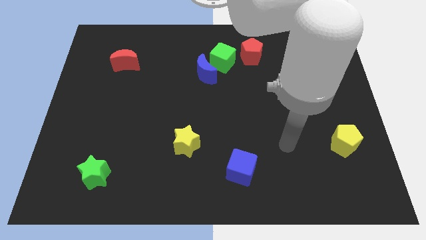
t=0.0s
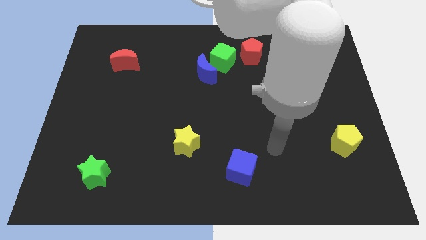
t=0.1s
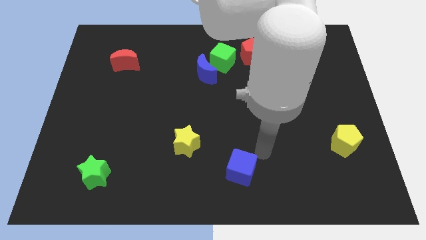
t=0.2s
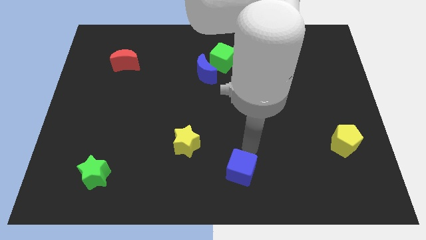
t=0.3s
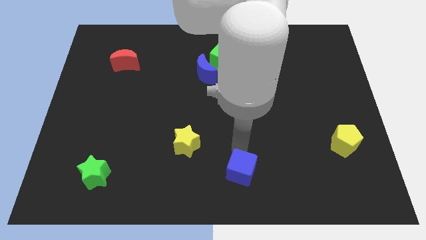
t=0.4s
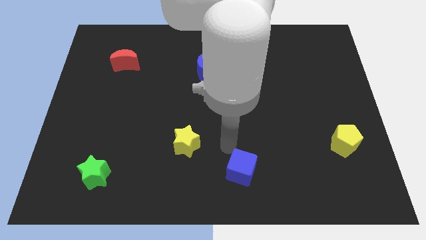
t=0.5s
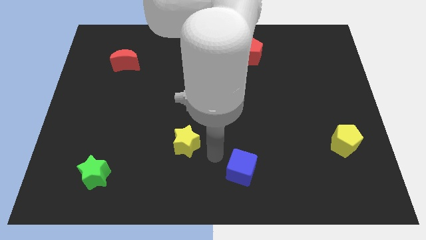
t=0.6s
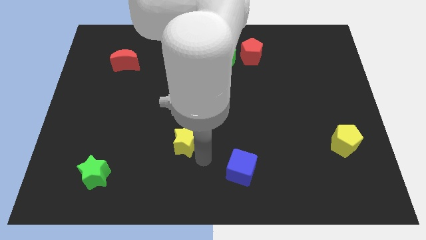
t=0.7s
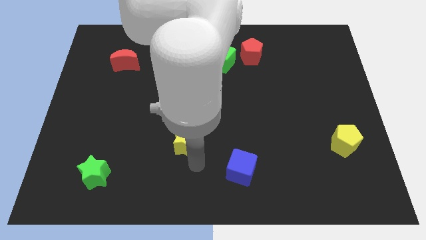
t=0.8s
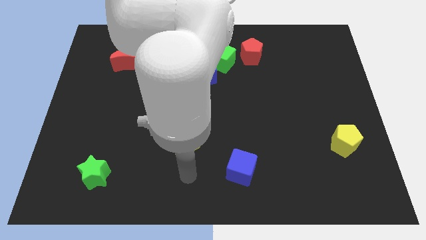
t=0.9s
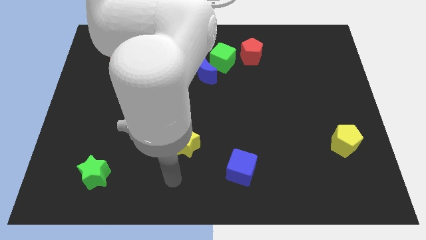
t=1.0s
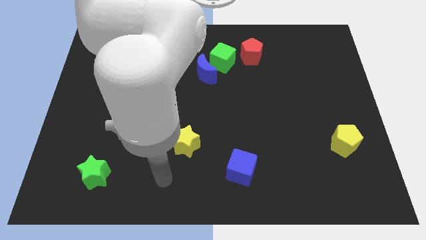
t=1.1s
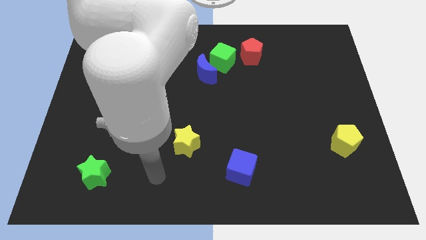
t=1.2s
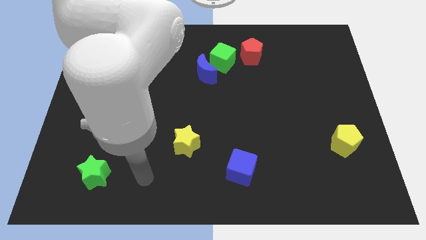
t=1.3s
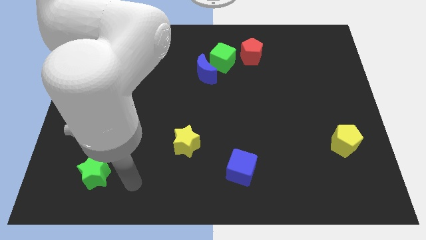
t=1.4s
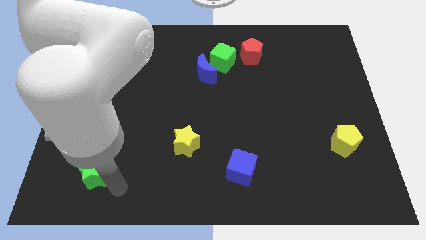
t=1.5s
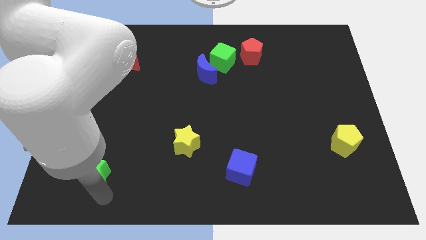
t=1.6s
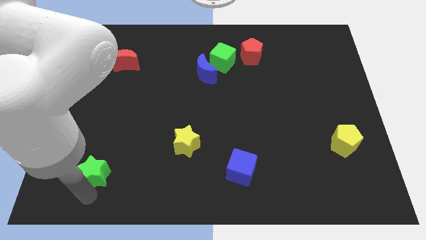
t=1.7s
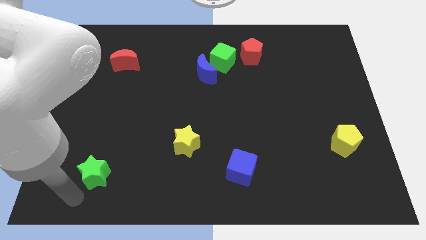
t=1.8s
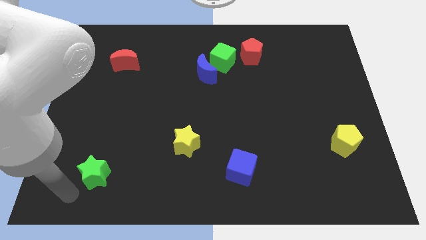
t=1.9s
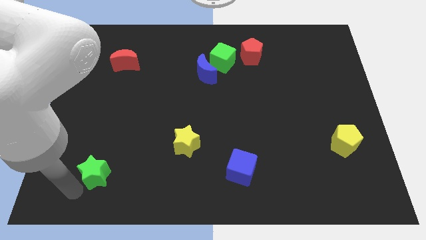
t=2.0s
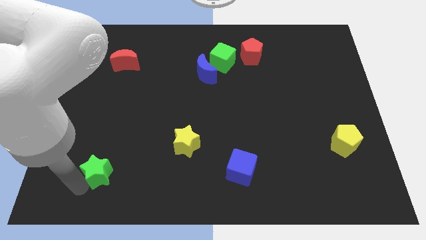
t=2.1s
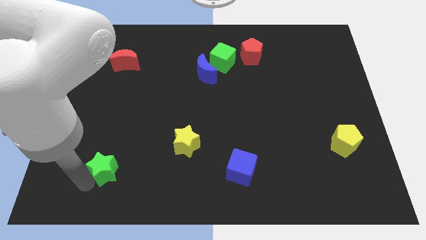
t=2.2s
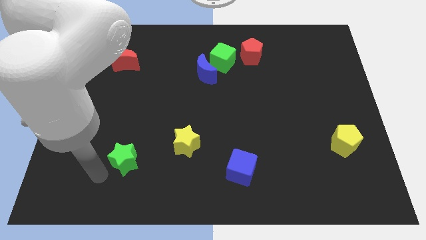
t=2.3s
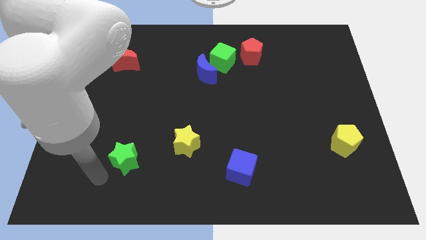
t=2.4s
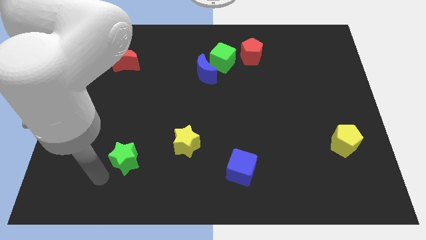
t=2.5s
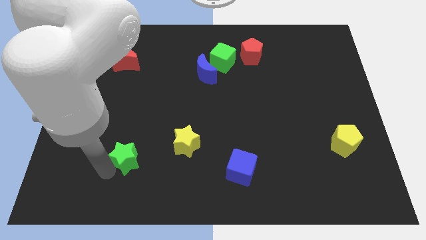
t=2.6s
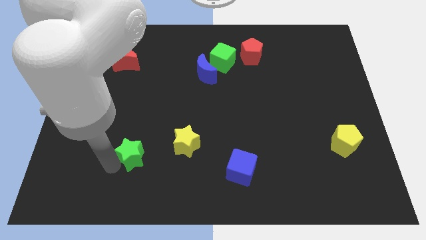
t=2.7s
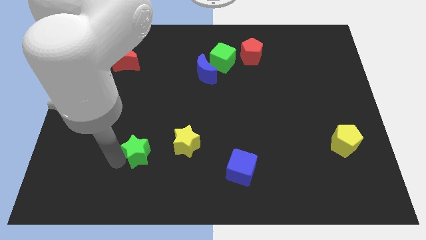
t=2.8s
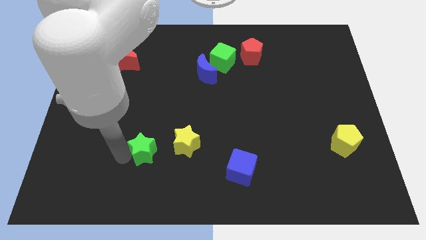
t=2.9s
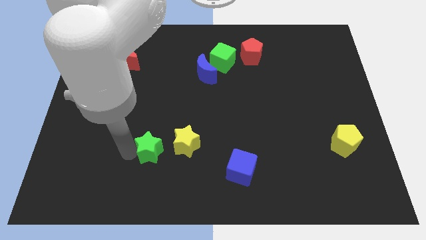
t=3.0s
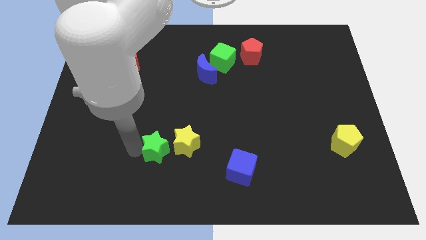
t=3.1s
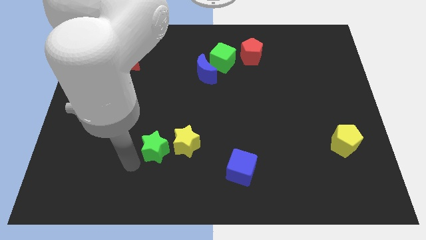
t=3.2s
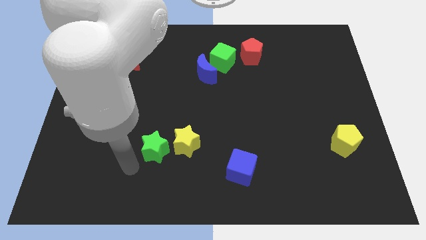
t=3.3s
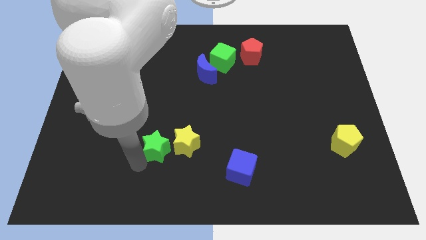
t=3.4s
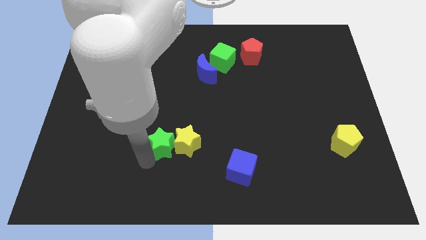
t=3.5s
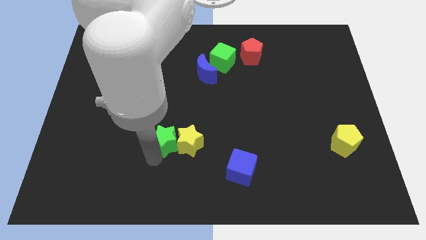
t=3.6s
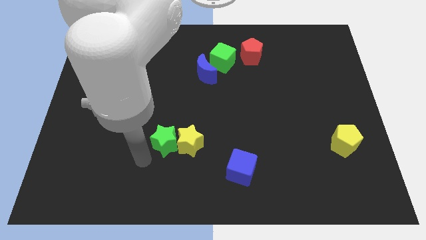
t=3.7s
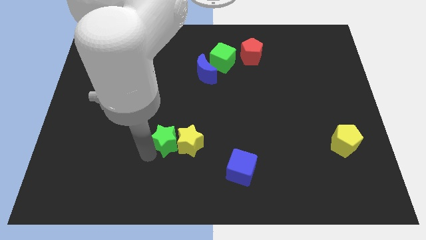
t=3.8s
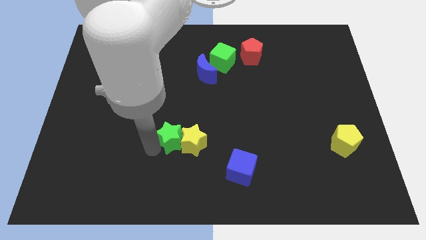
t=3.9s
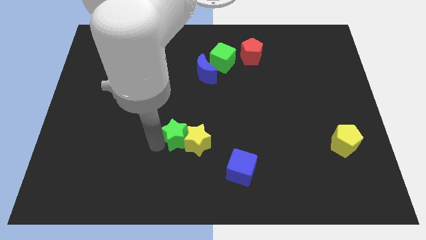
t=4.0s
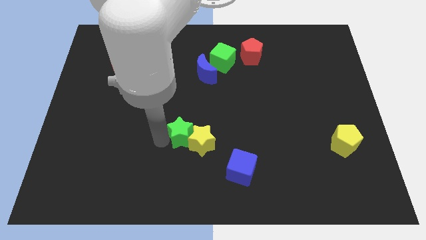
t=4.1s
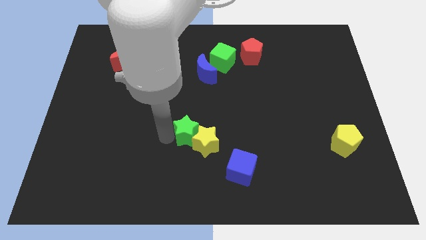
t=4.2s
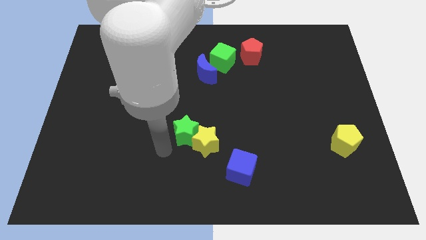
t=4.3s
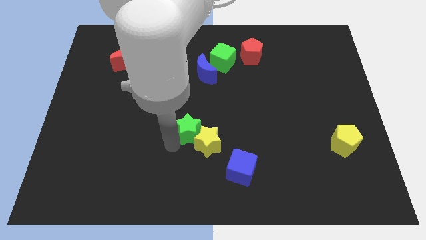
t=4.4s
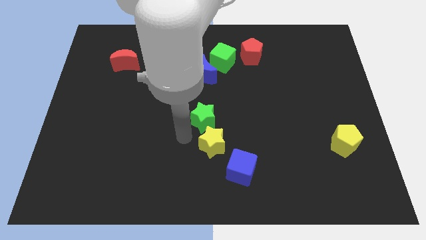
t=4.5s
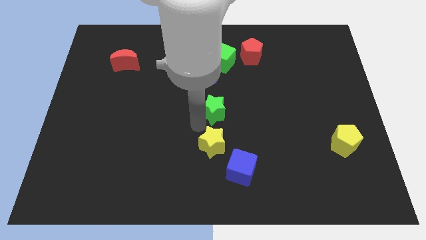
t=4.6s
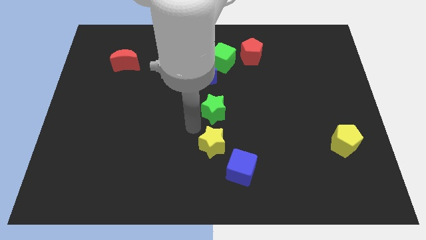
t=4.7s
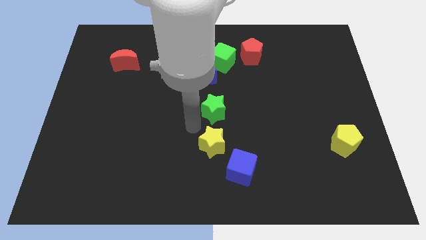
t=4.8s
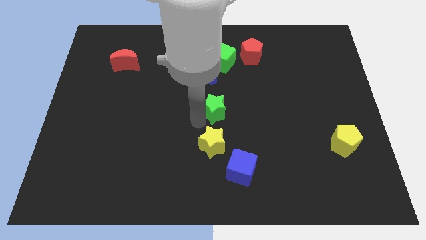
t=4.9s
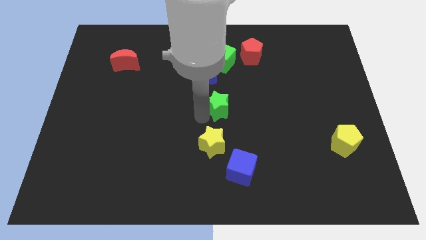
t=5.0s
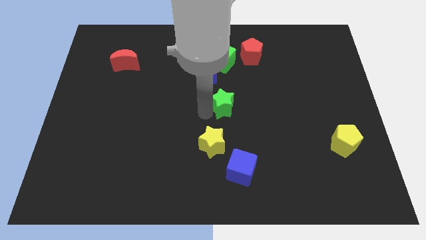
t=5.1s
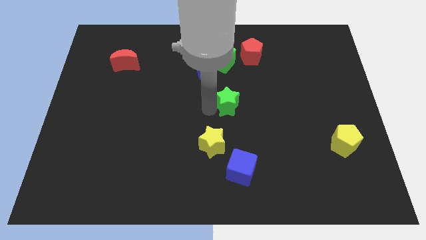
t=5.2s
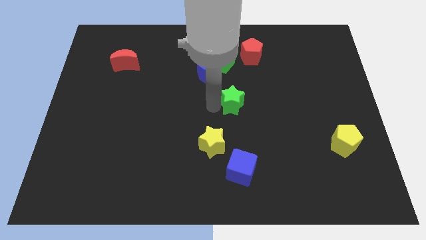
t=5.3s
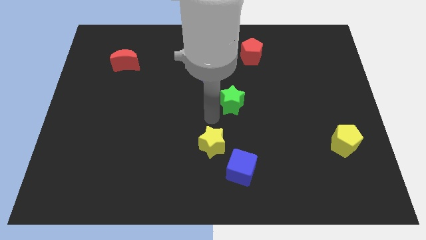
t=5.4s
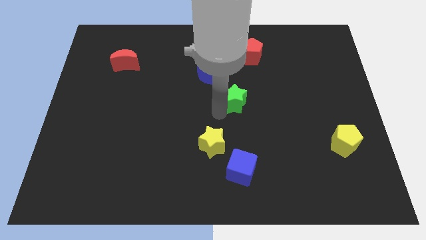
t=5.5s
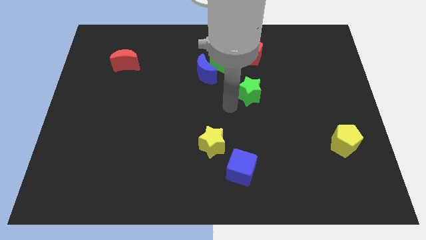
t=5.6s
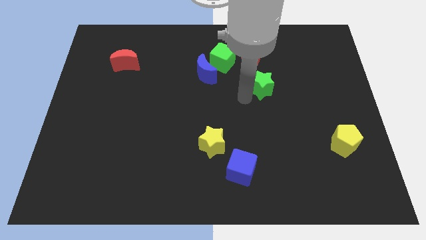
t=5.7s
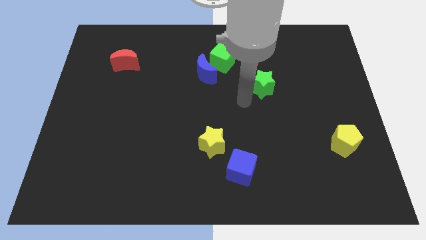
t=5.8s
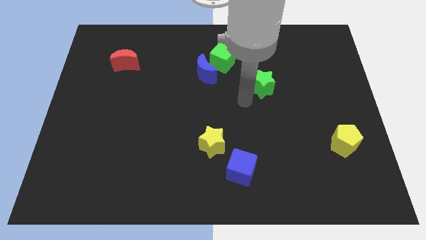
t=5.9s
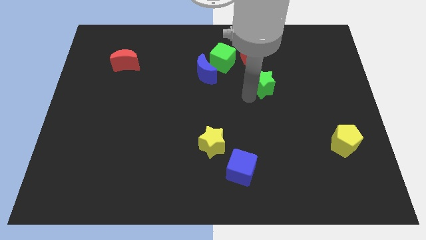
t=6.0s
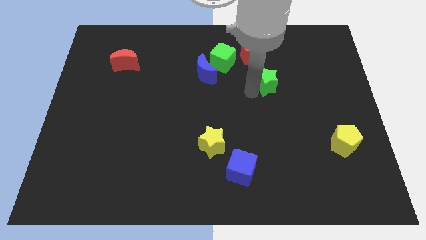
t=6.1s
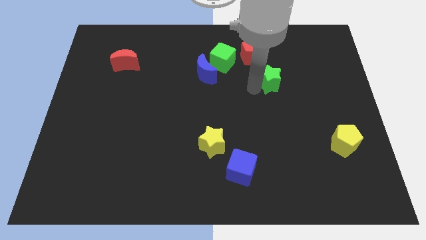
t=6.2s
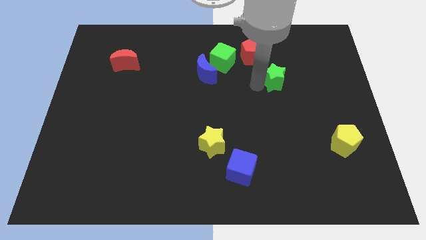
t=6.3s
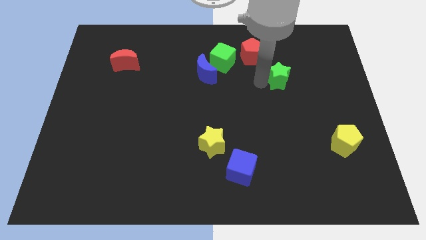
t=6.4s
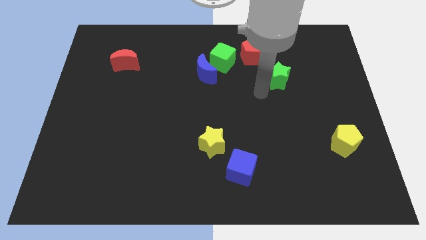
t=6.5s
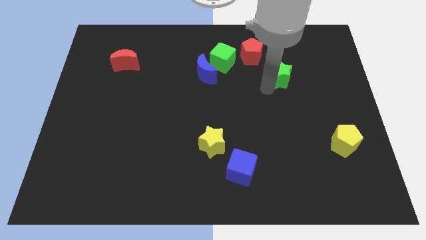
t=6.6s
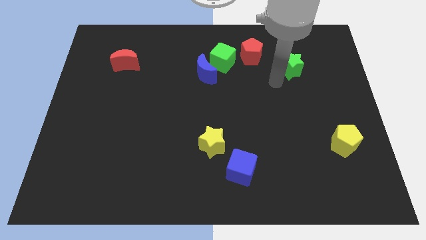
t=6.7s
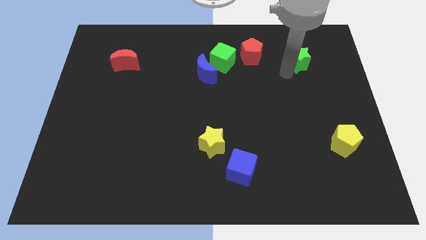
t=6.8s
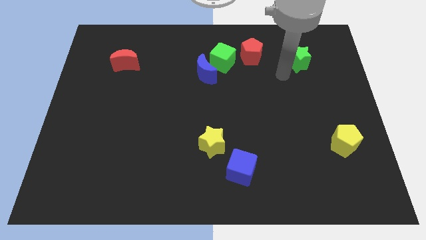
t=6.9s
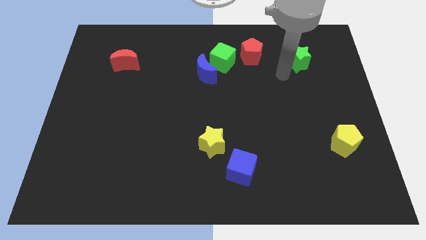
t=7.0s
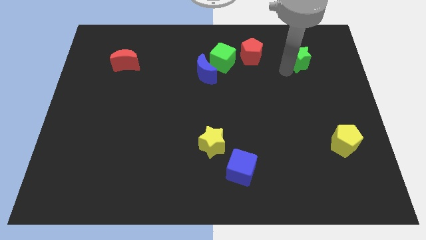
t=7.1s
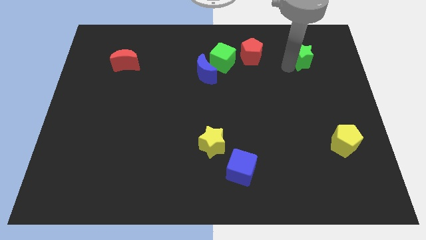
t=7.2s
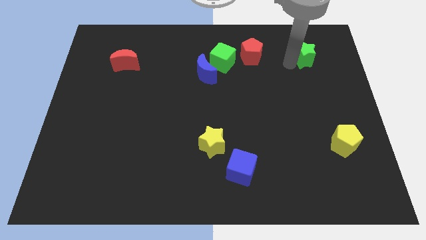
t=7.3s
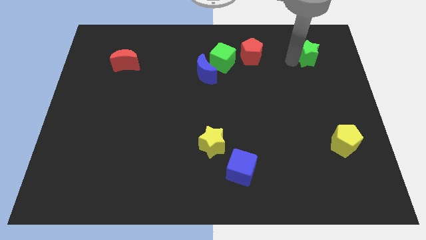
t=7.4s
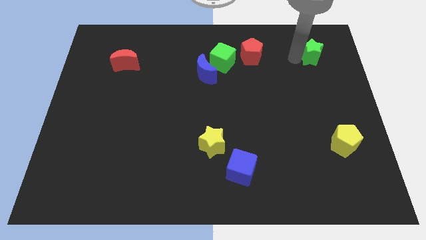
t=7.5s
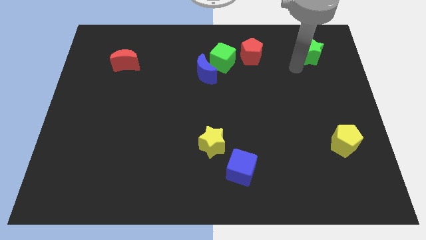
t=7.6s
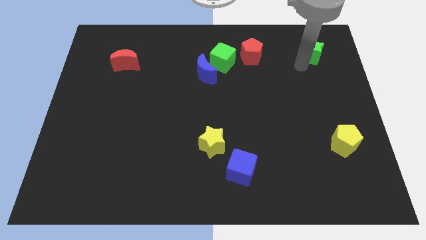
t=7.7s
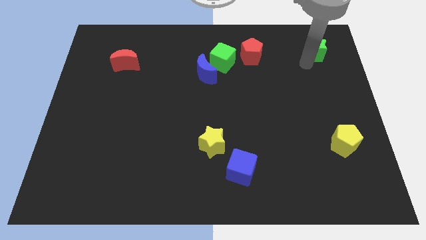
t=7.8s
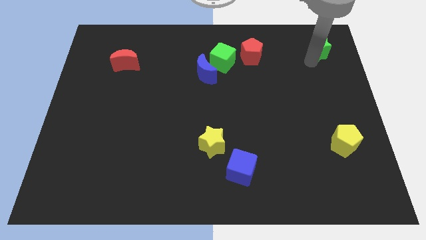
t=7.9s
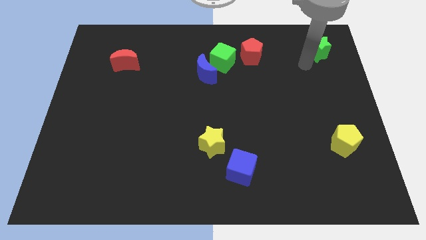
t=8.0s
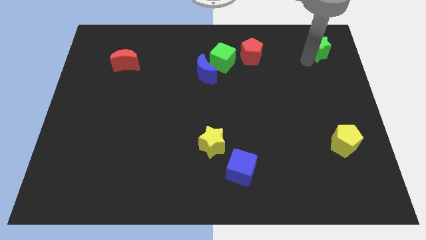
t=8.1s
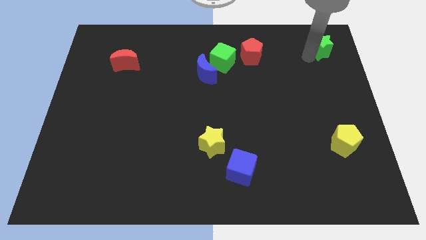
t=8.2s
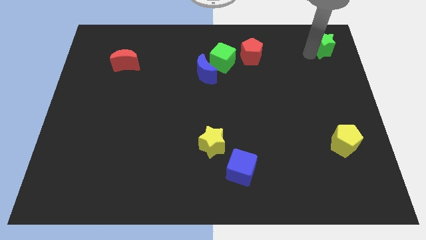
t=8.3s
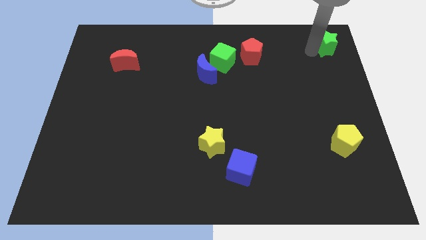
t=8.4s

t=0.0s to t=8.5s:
slide the green star to the top right of the board
